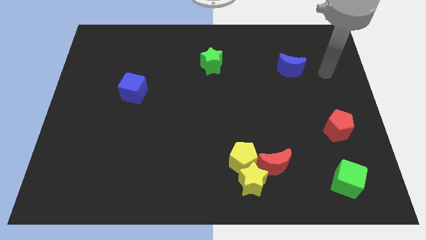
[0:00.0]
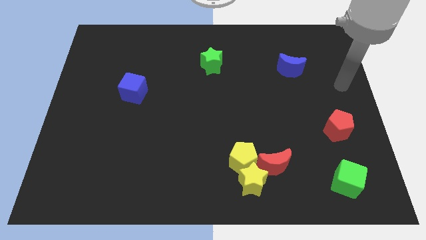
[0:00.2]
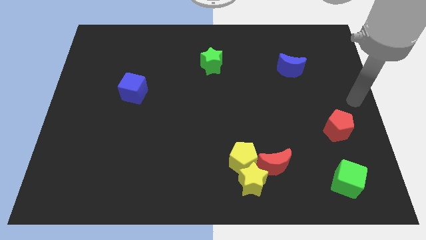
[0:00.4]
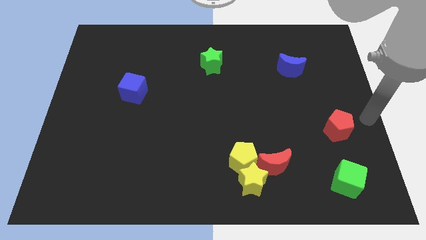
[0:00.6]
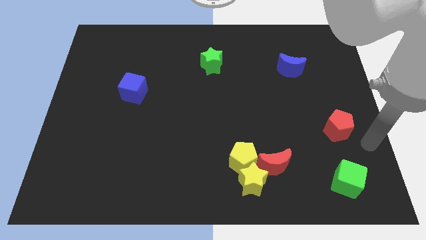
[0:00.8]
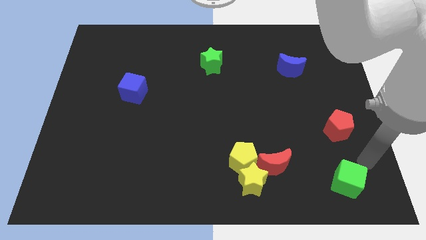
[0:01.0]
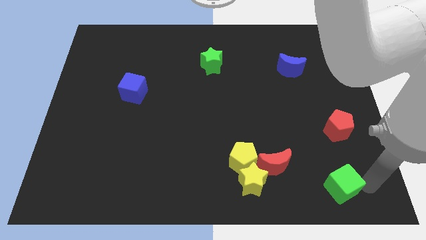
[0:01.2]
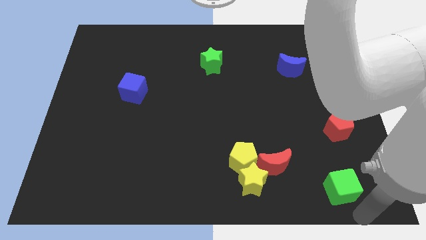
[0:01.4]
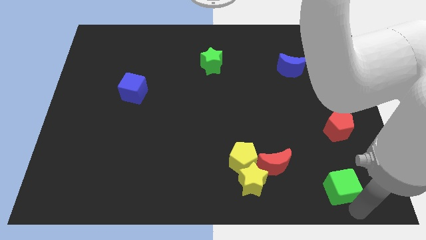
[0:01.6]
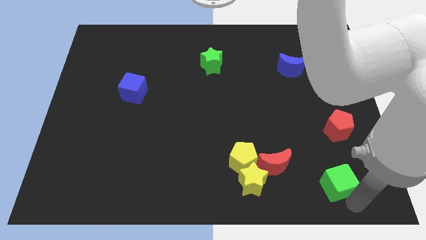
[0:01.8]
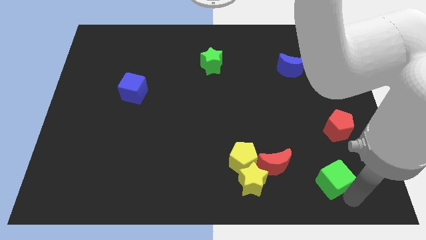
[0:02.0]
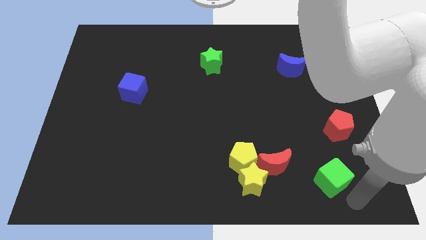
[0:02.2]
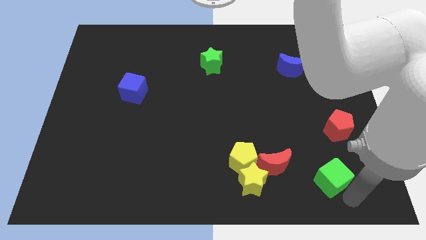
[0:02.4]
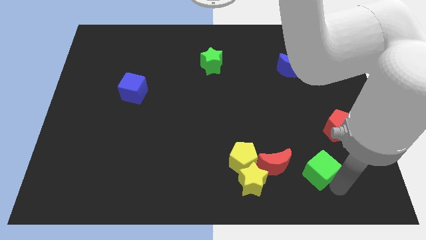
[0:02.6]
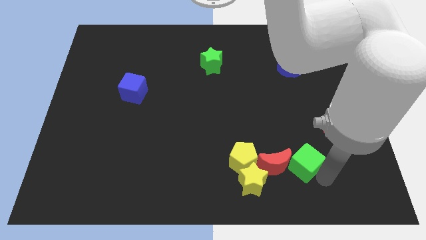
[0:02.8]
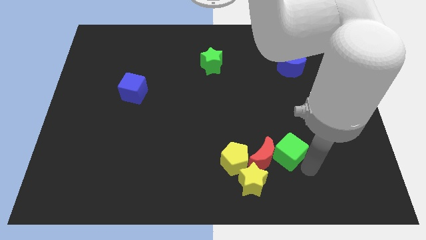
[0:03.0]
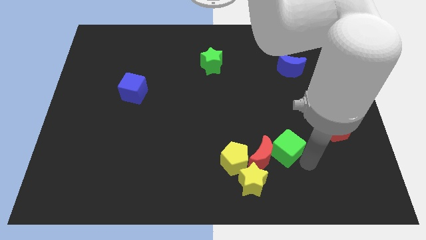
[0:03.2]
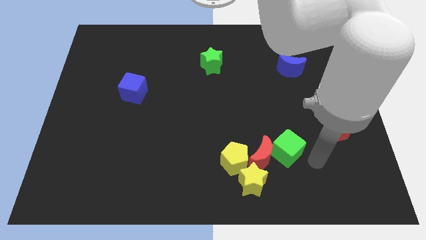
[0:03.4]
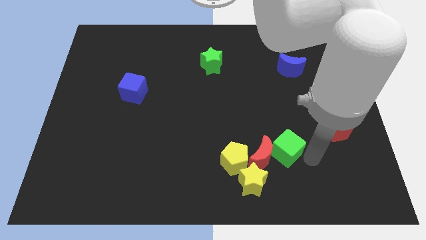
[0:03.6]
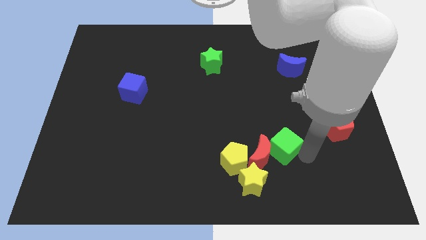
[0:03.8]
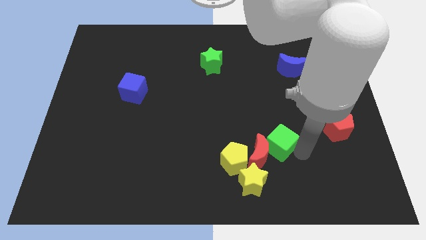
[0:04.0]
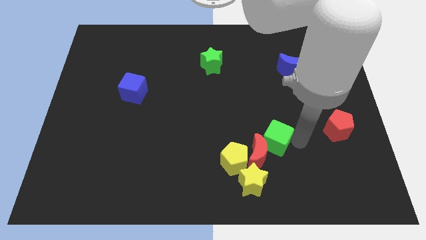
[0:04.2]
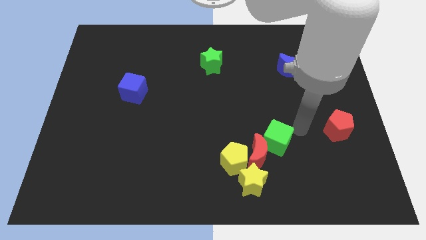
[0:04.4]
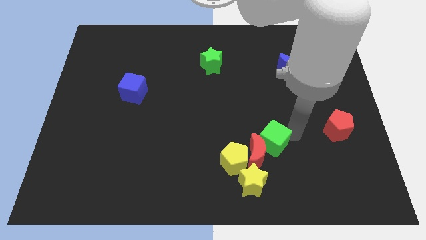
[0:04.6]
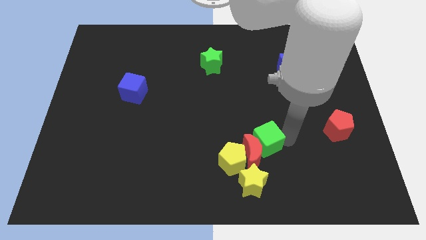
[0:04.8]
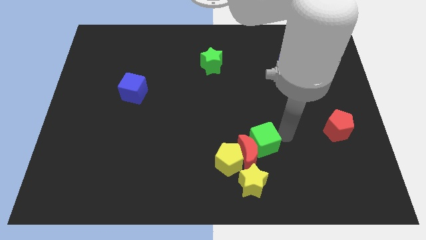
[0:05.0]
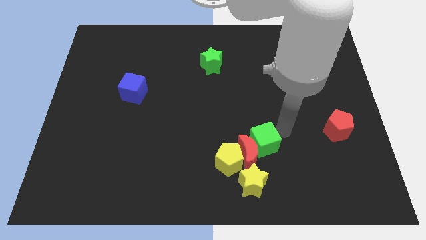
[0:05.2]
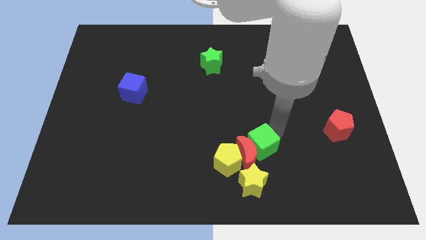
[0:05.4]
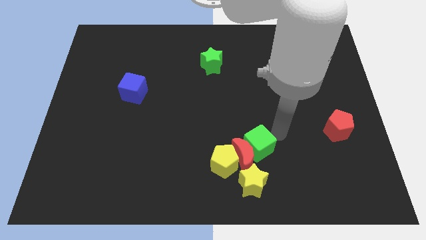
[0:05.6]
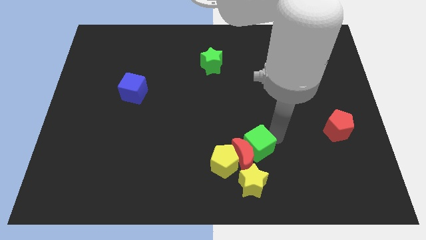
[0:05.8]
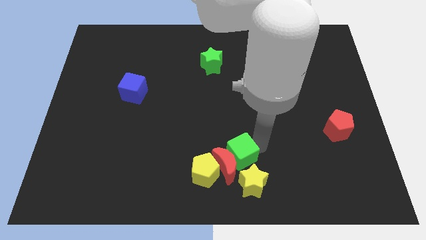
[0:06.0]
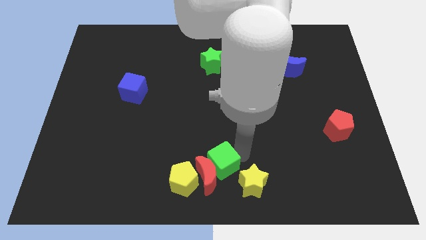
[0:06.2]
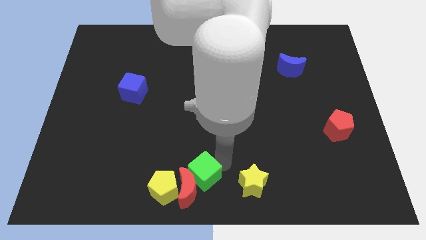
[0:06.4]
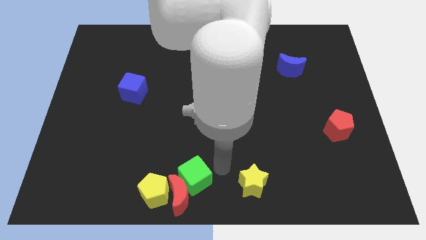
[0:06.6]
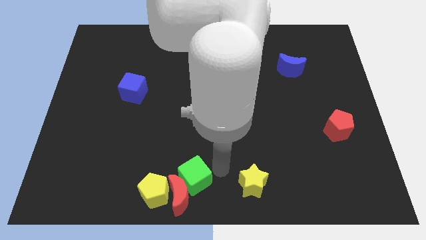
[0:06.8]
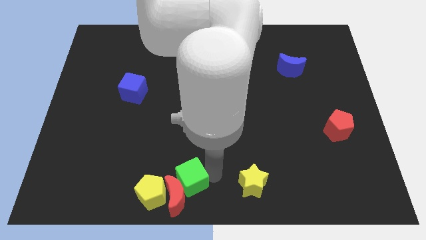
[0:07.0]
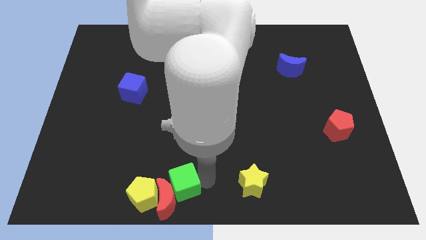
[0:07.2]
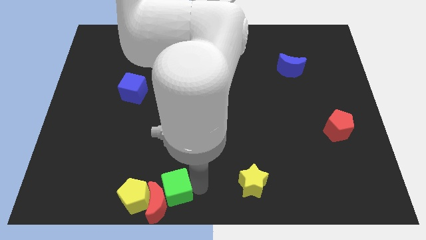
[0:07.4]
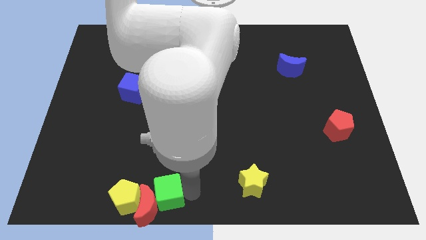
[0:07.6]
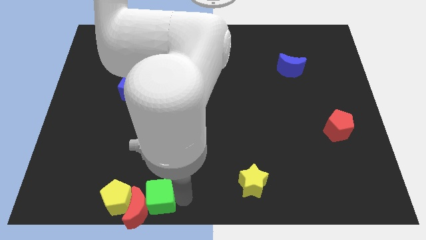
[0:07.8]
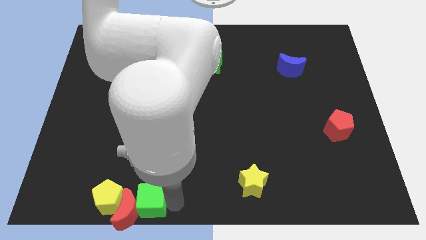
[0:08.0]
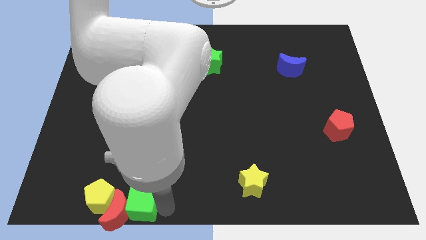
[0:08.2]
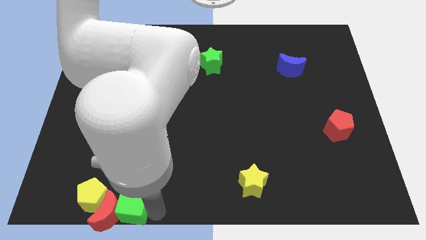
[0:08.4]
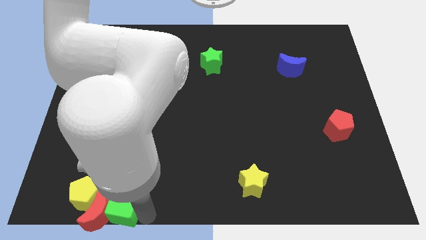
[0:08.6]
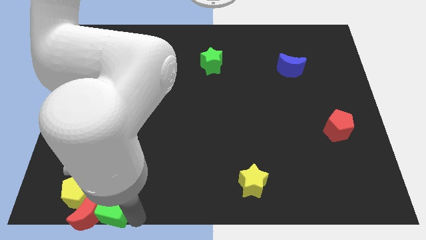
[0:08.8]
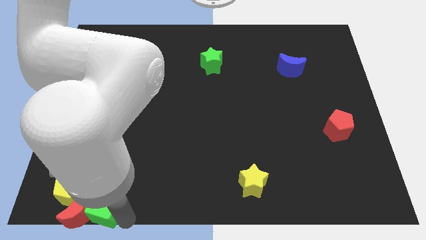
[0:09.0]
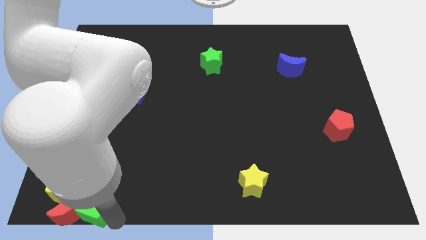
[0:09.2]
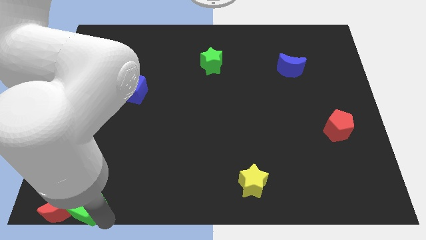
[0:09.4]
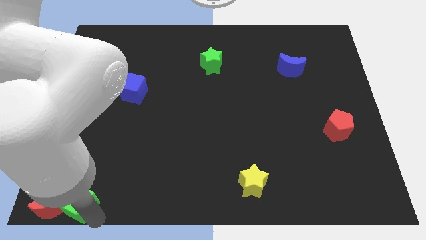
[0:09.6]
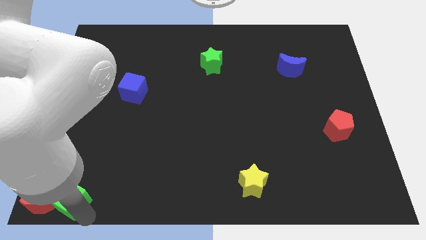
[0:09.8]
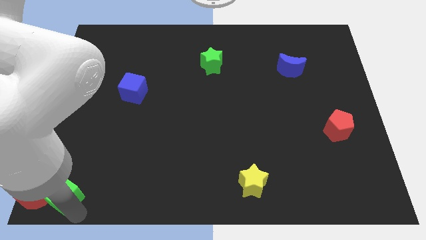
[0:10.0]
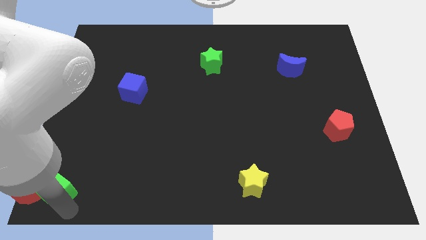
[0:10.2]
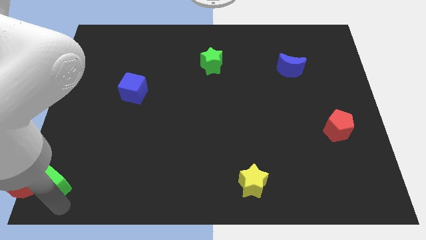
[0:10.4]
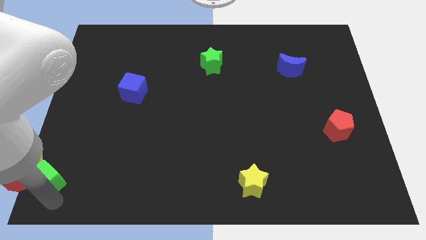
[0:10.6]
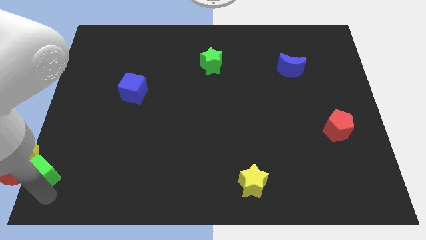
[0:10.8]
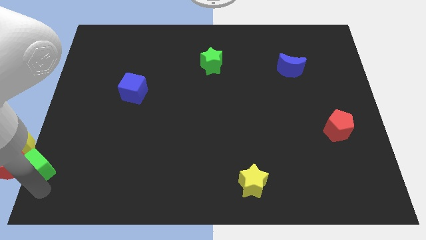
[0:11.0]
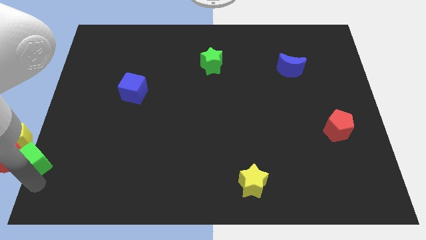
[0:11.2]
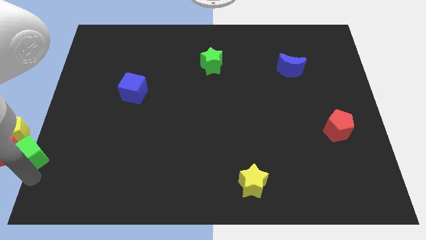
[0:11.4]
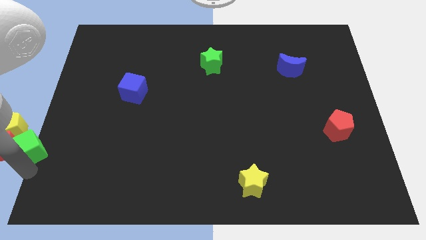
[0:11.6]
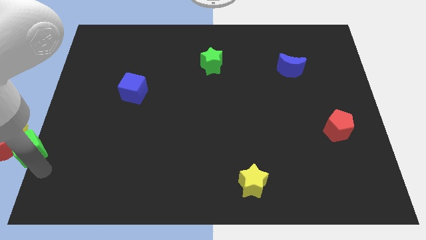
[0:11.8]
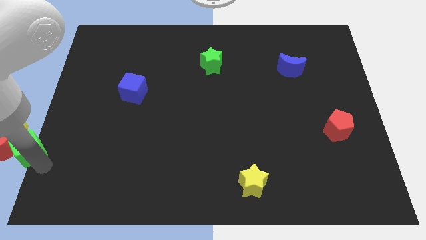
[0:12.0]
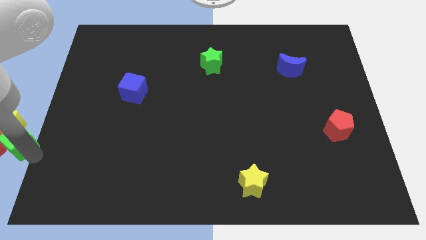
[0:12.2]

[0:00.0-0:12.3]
slide the green cube close to the yellow pentagon

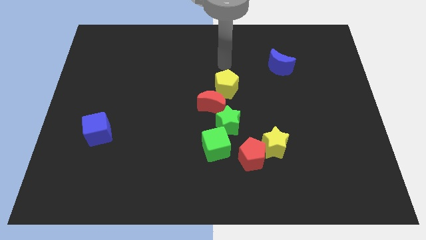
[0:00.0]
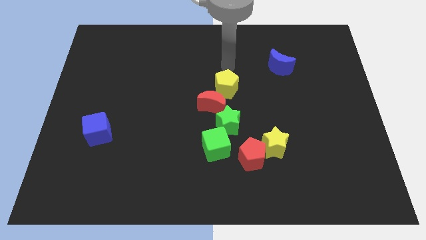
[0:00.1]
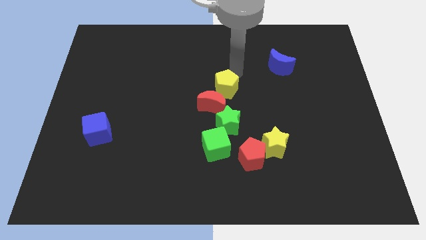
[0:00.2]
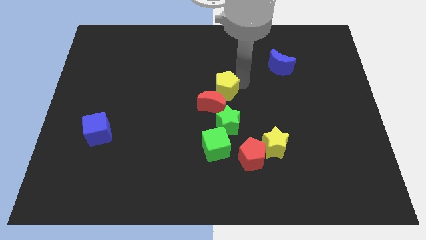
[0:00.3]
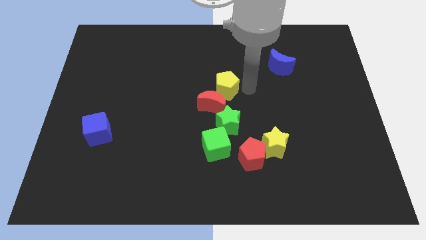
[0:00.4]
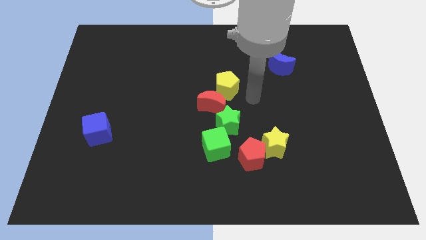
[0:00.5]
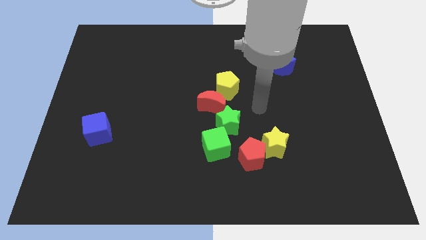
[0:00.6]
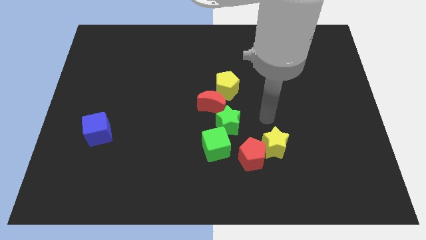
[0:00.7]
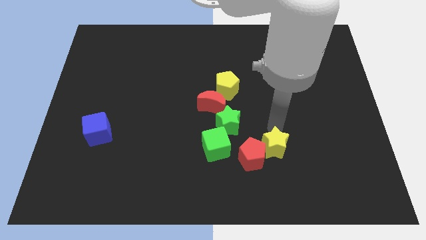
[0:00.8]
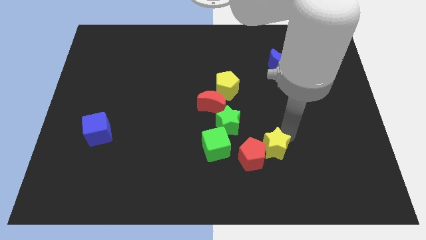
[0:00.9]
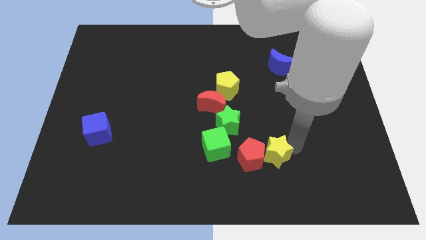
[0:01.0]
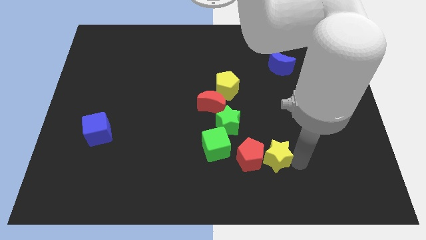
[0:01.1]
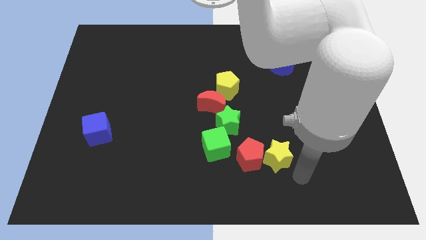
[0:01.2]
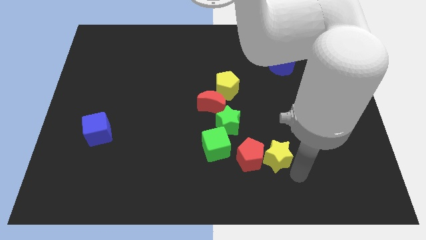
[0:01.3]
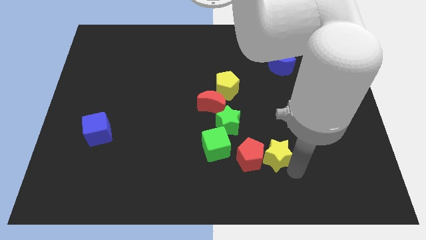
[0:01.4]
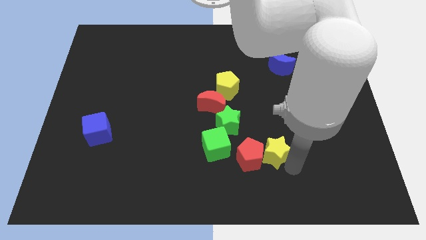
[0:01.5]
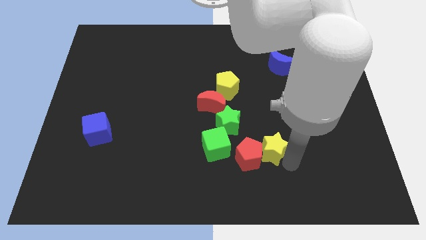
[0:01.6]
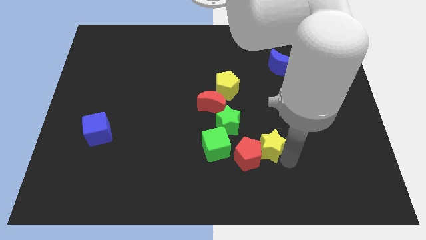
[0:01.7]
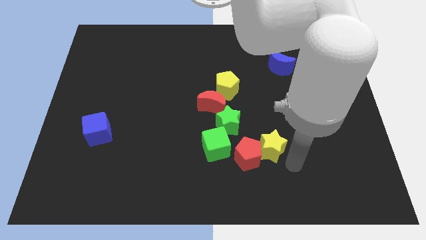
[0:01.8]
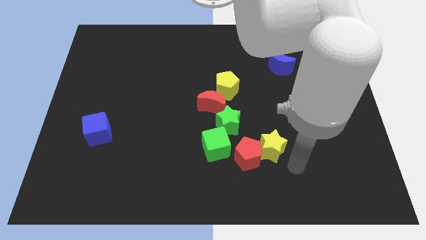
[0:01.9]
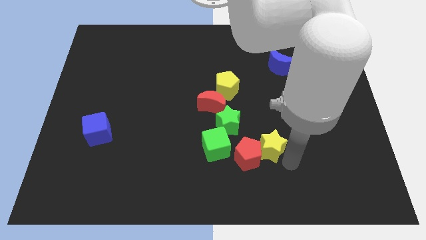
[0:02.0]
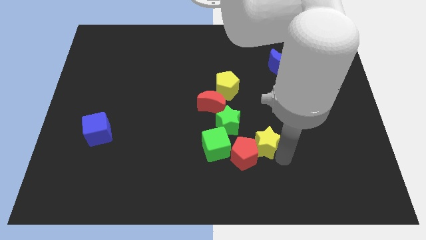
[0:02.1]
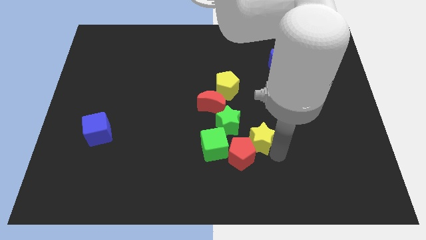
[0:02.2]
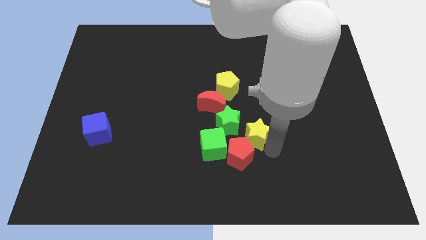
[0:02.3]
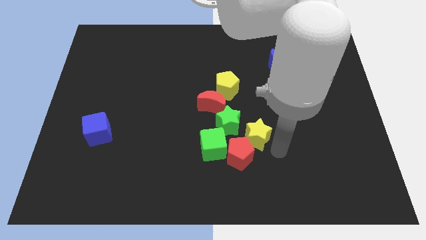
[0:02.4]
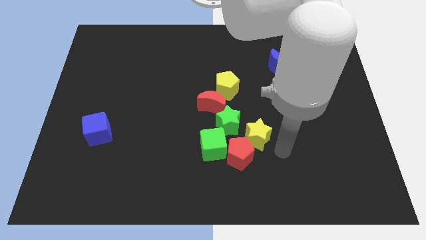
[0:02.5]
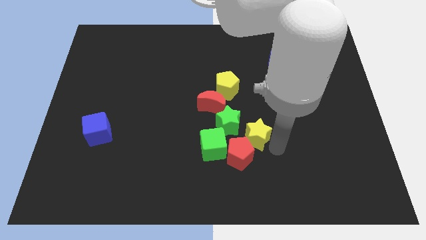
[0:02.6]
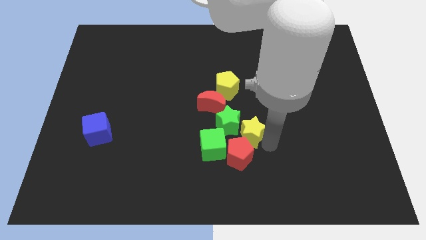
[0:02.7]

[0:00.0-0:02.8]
move the yellow star close to the green star
